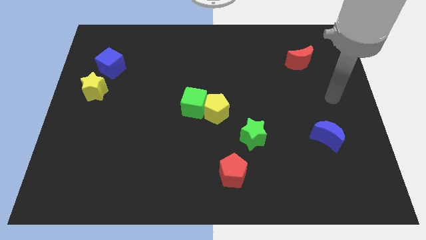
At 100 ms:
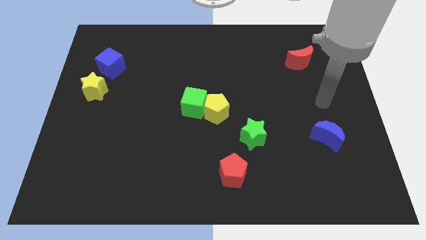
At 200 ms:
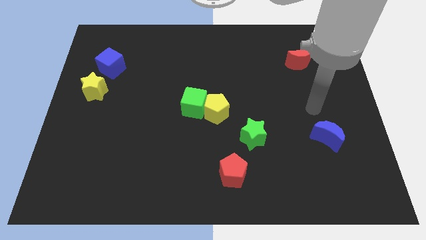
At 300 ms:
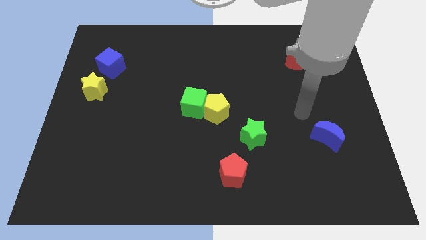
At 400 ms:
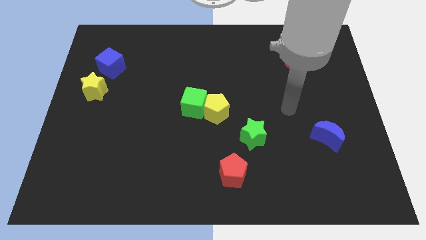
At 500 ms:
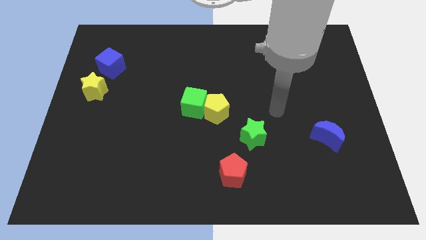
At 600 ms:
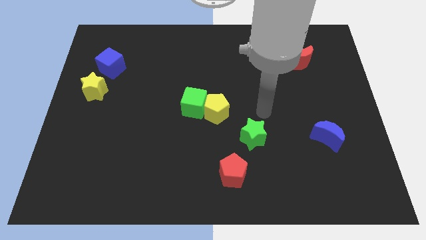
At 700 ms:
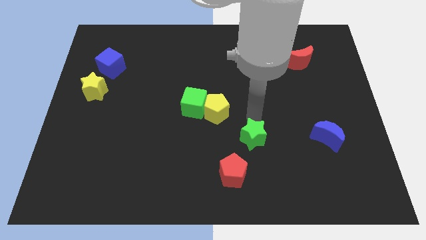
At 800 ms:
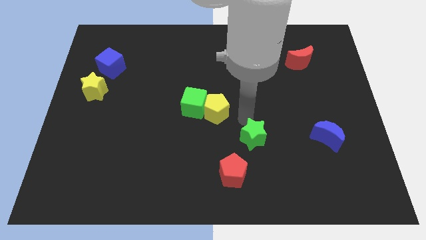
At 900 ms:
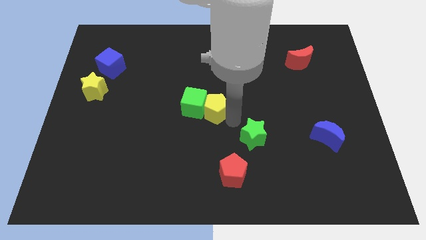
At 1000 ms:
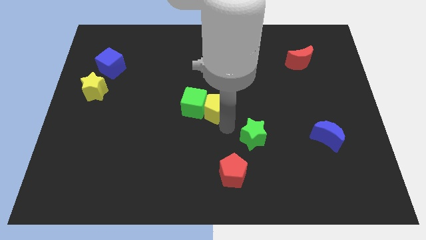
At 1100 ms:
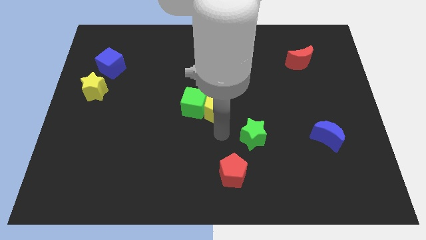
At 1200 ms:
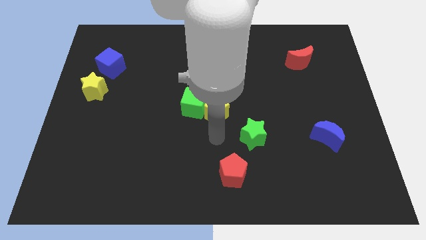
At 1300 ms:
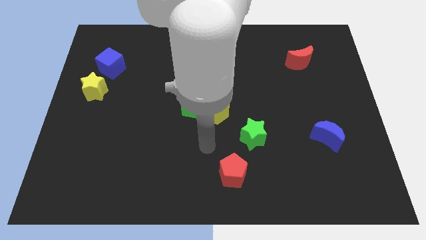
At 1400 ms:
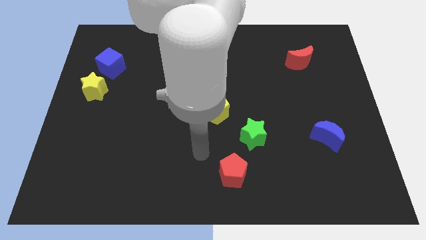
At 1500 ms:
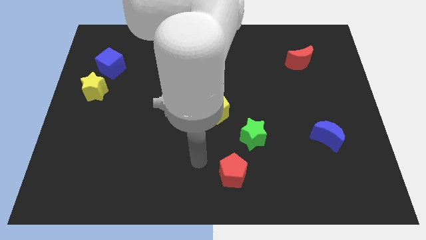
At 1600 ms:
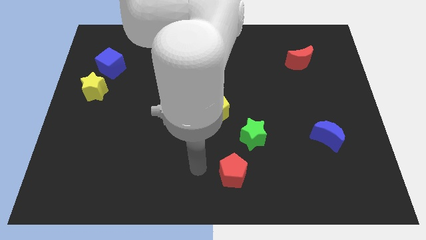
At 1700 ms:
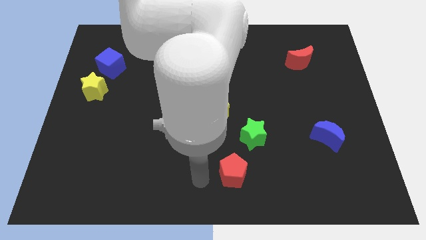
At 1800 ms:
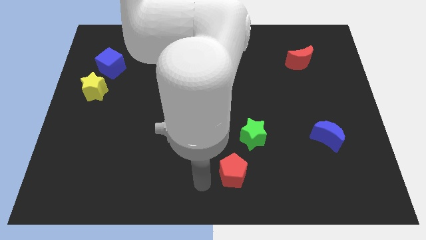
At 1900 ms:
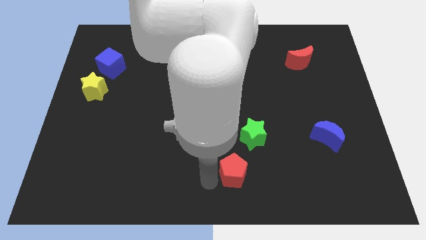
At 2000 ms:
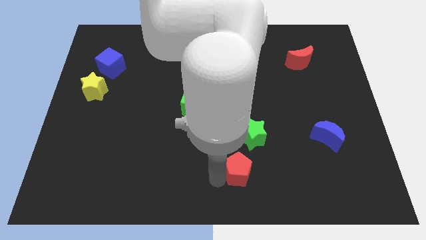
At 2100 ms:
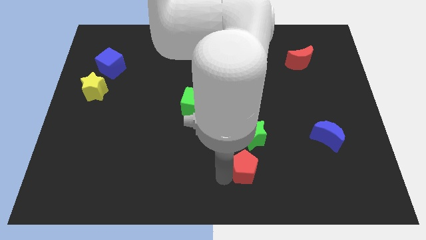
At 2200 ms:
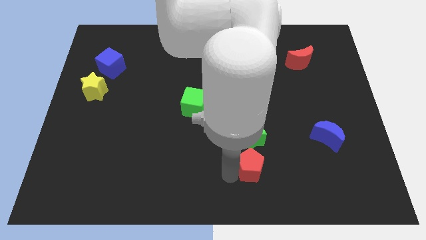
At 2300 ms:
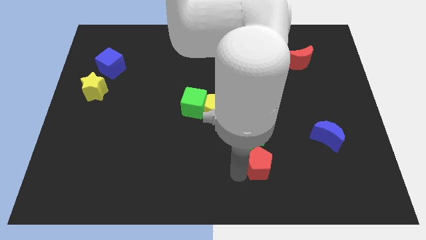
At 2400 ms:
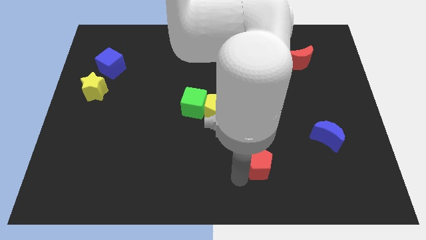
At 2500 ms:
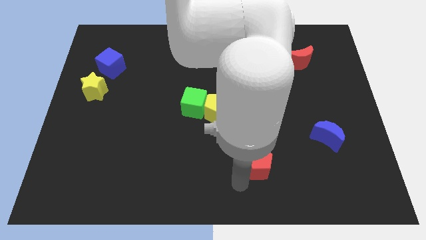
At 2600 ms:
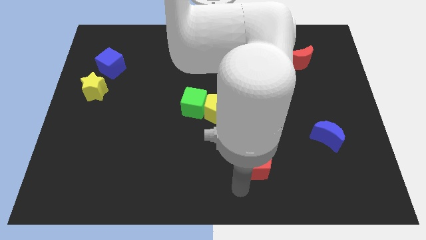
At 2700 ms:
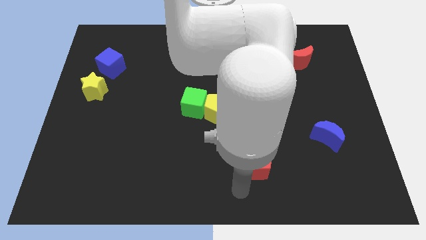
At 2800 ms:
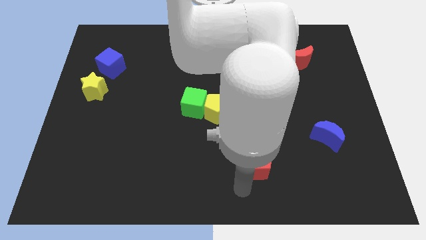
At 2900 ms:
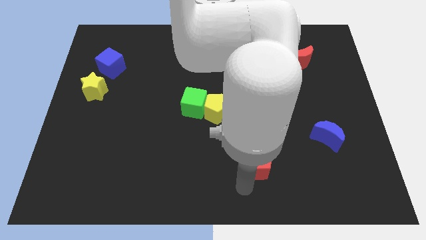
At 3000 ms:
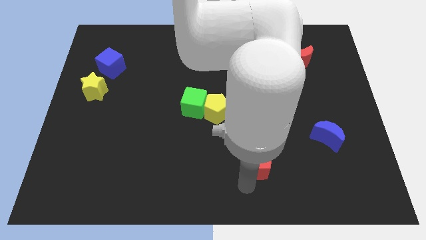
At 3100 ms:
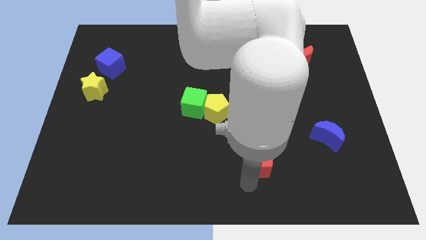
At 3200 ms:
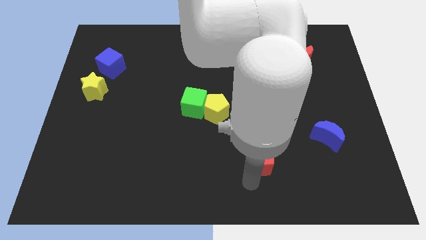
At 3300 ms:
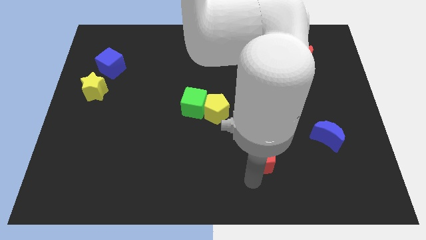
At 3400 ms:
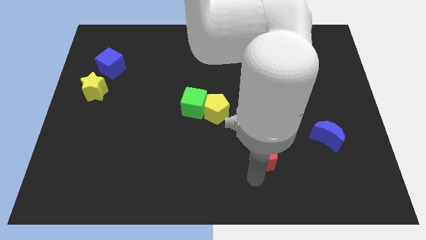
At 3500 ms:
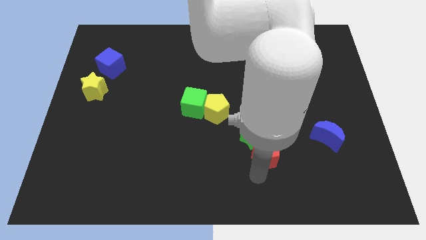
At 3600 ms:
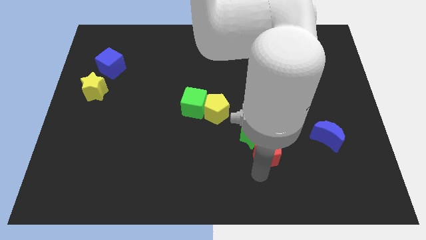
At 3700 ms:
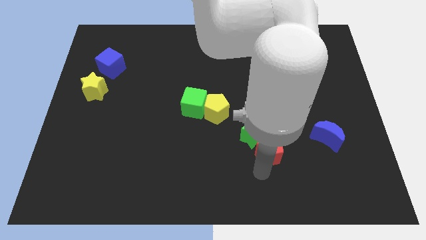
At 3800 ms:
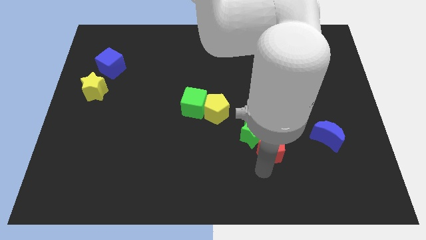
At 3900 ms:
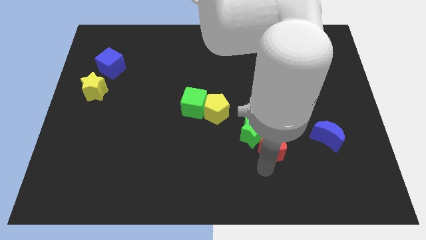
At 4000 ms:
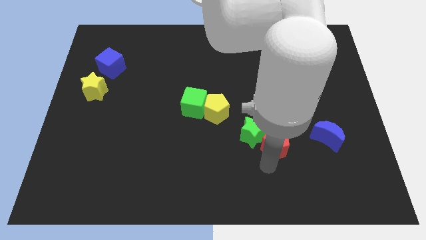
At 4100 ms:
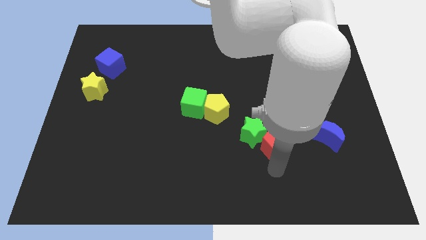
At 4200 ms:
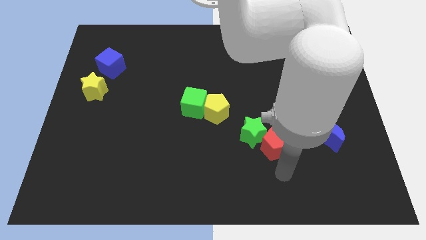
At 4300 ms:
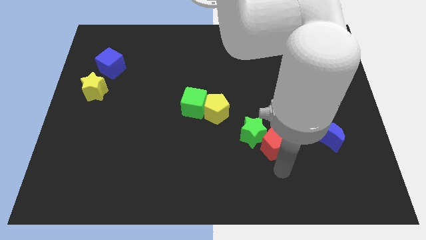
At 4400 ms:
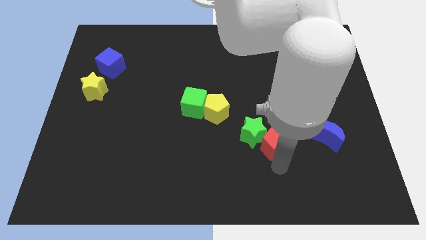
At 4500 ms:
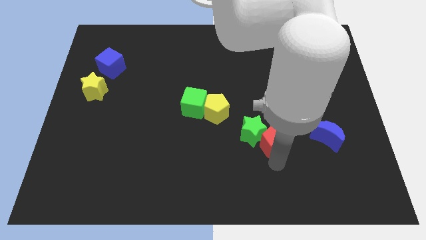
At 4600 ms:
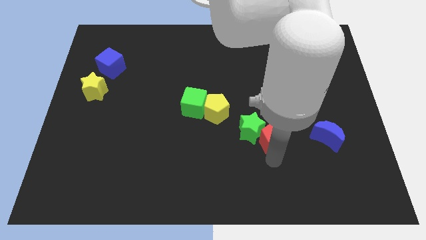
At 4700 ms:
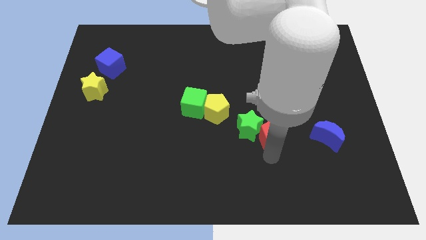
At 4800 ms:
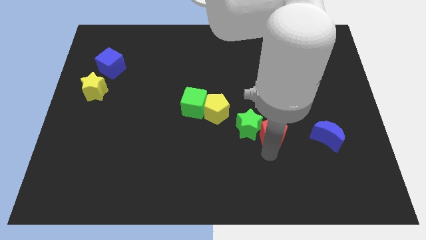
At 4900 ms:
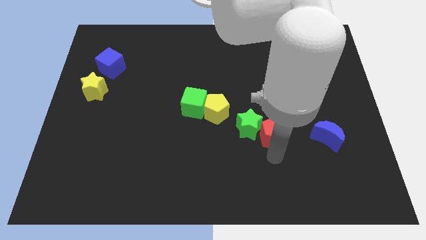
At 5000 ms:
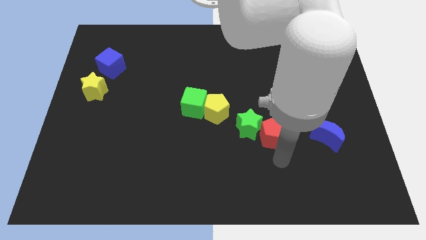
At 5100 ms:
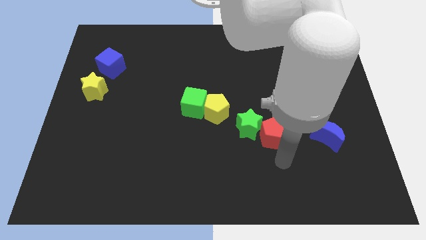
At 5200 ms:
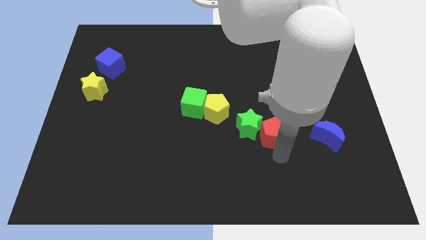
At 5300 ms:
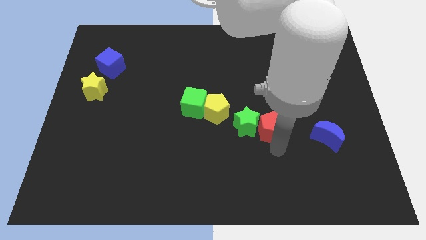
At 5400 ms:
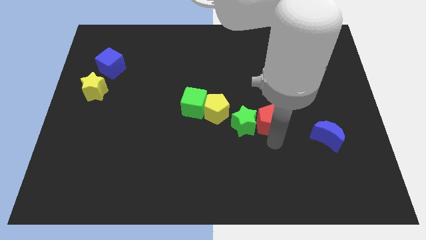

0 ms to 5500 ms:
put the red pentagon to the right of the yellow pentagon

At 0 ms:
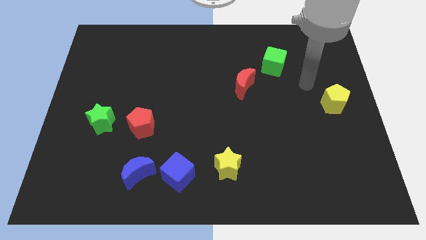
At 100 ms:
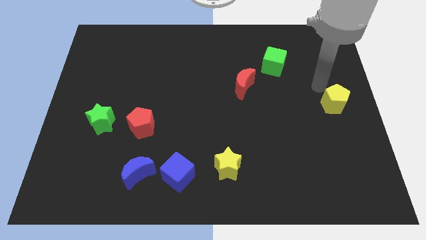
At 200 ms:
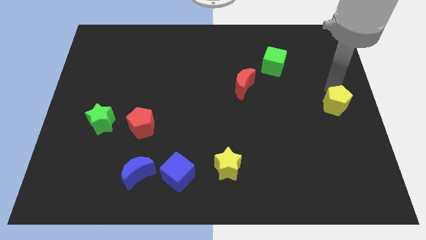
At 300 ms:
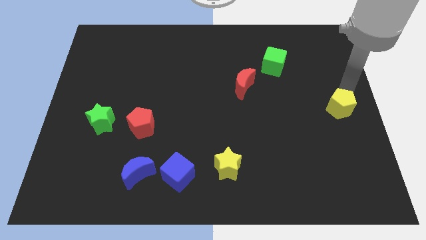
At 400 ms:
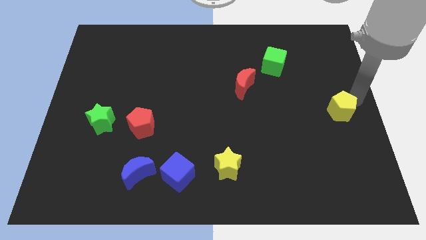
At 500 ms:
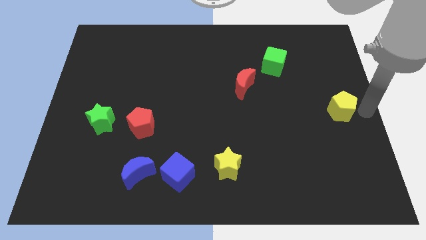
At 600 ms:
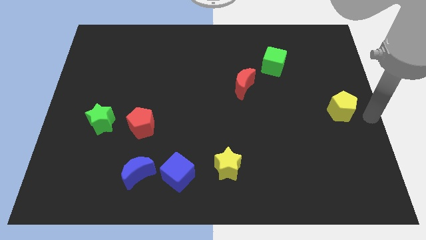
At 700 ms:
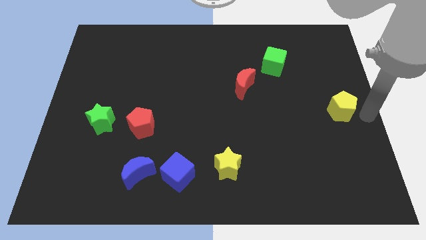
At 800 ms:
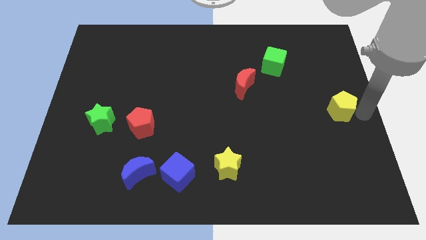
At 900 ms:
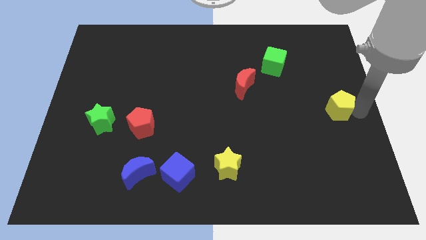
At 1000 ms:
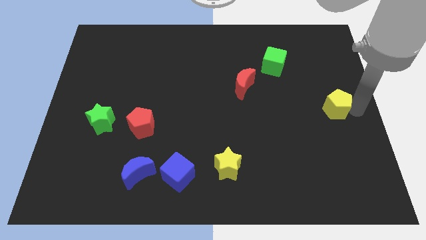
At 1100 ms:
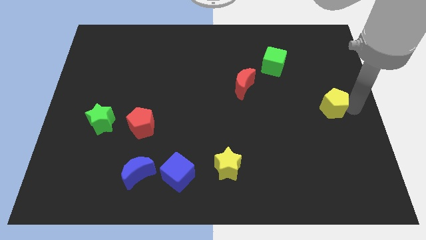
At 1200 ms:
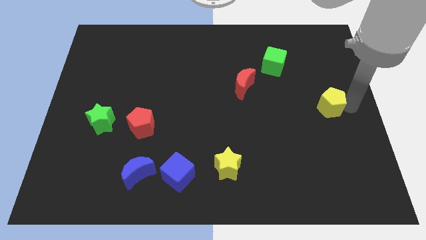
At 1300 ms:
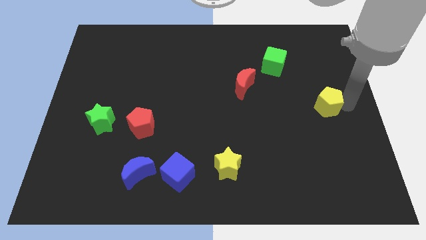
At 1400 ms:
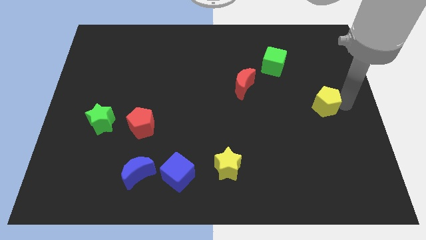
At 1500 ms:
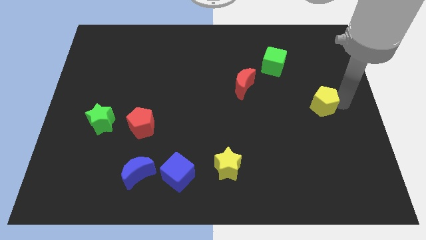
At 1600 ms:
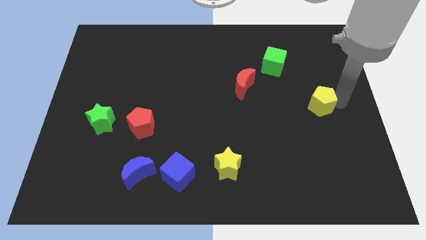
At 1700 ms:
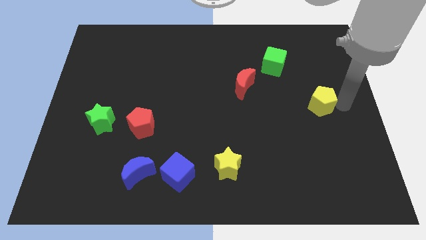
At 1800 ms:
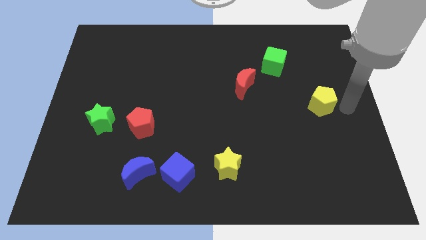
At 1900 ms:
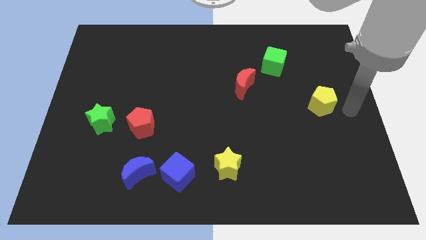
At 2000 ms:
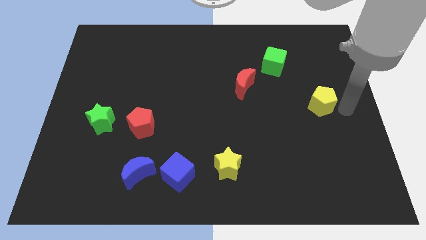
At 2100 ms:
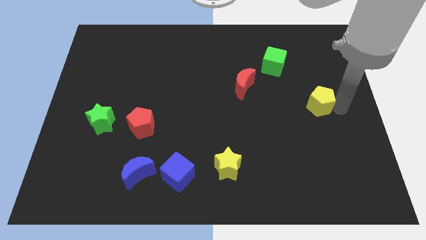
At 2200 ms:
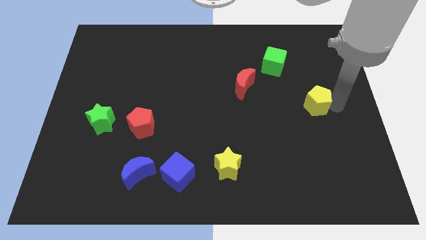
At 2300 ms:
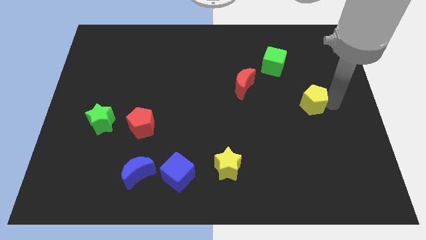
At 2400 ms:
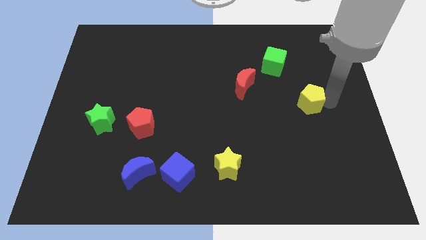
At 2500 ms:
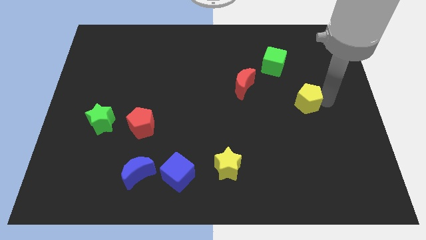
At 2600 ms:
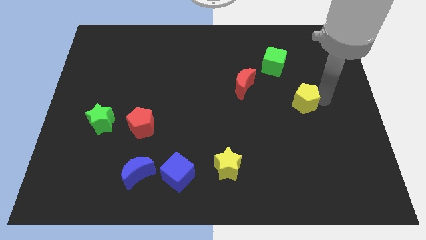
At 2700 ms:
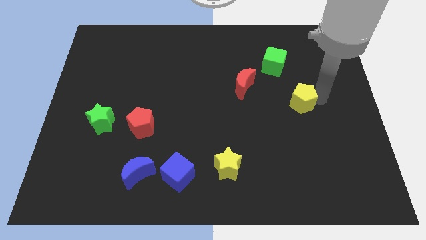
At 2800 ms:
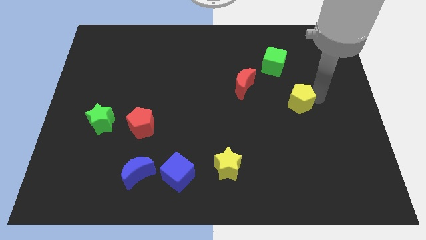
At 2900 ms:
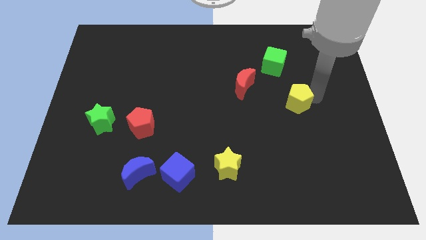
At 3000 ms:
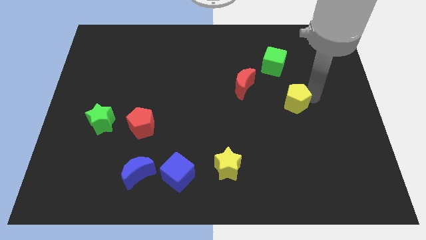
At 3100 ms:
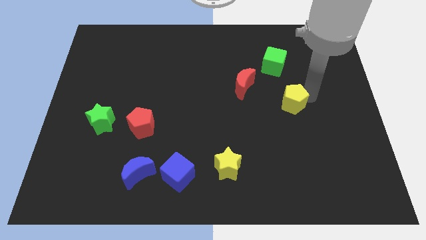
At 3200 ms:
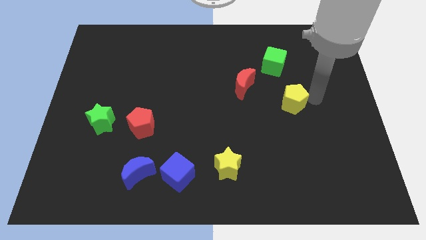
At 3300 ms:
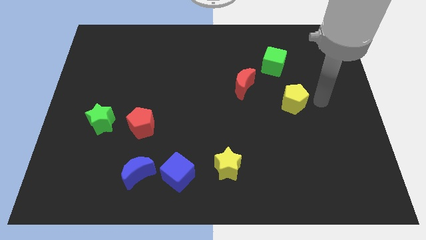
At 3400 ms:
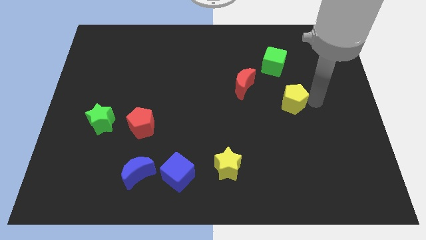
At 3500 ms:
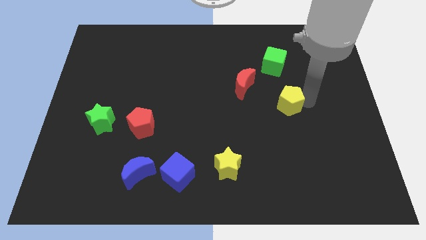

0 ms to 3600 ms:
push the yellow pentagon to the bottom right of the red moon
